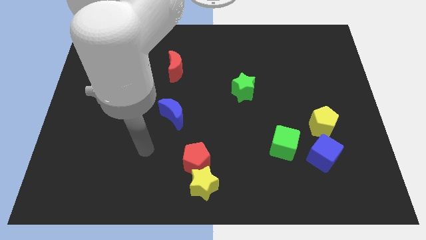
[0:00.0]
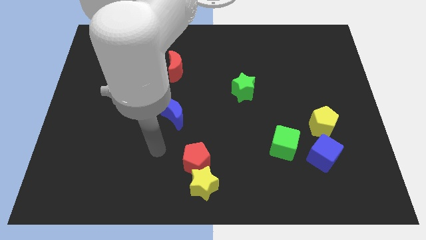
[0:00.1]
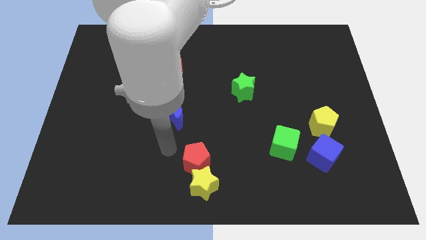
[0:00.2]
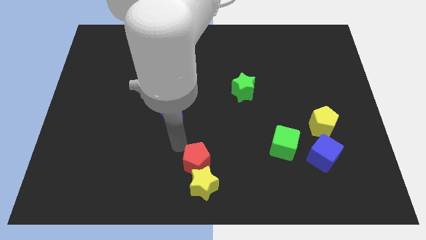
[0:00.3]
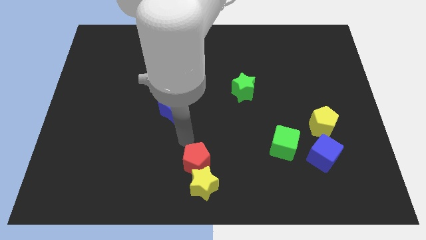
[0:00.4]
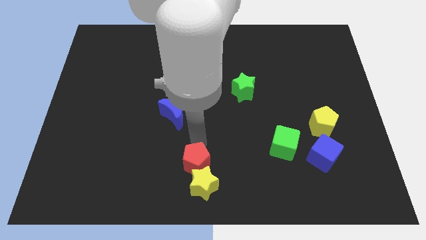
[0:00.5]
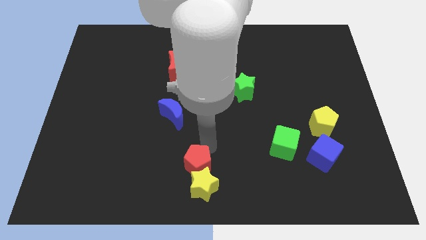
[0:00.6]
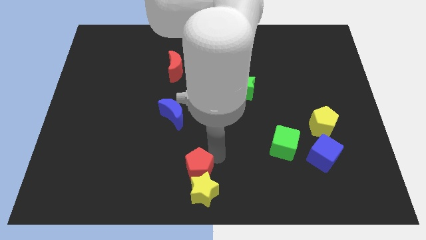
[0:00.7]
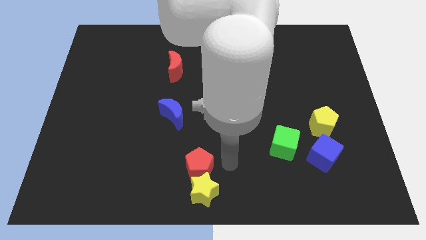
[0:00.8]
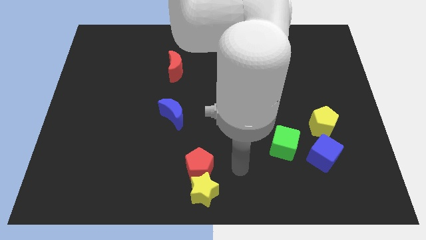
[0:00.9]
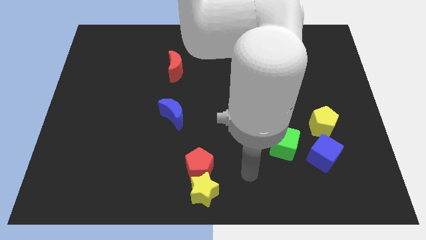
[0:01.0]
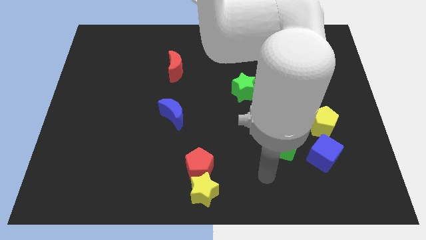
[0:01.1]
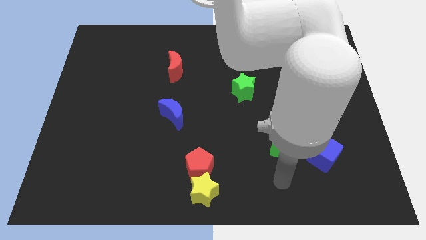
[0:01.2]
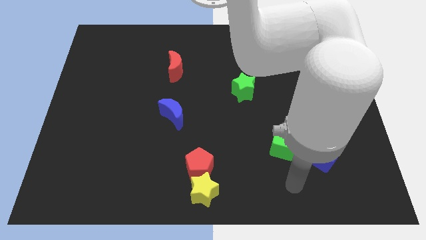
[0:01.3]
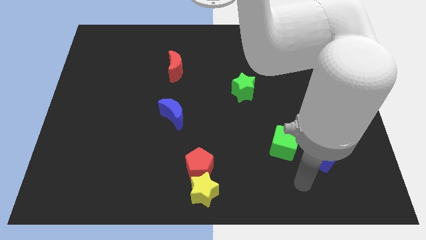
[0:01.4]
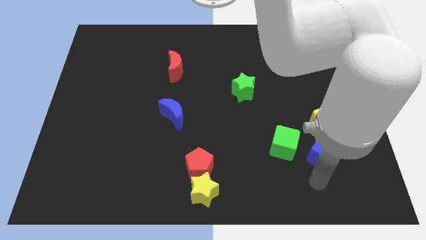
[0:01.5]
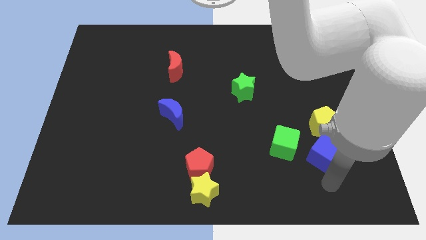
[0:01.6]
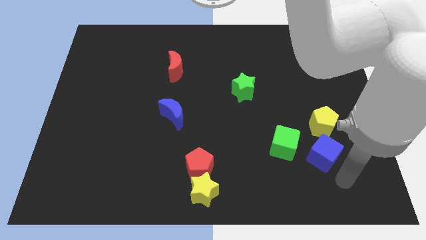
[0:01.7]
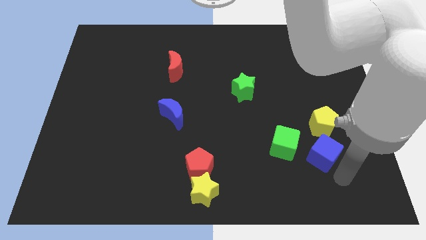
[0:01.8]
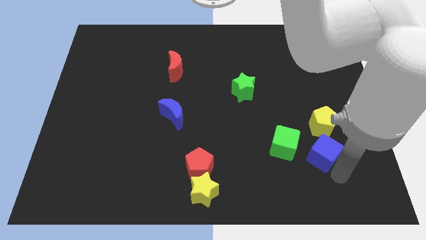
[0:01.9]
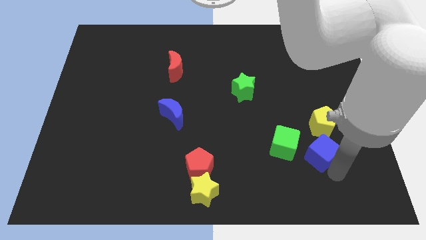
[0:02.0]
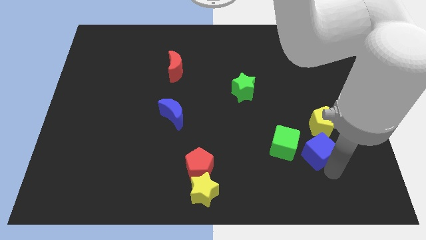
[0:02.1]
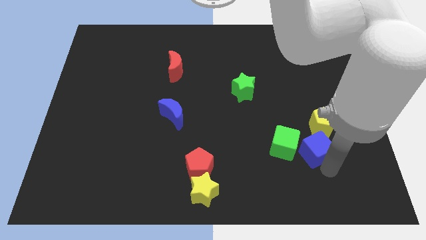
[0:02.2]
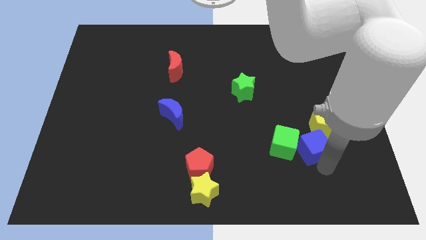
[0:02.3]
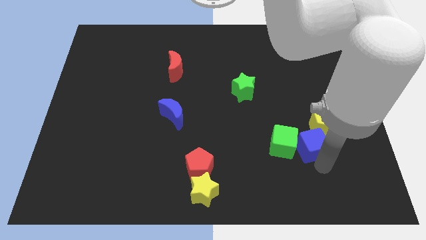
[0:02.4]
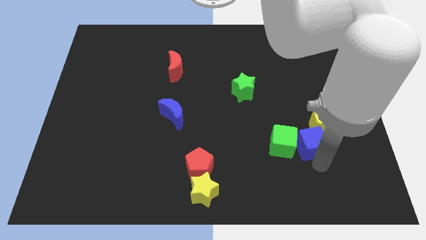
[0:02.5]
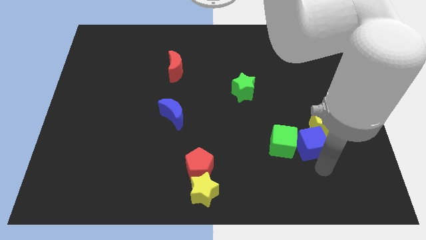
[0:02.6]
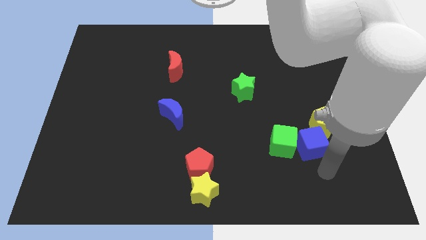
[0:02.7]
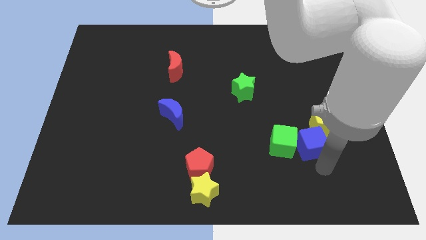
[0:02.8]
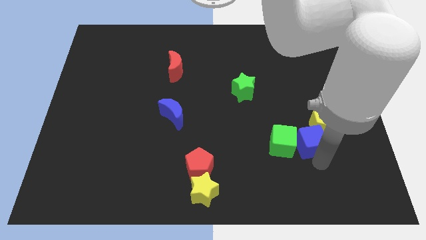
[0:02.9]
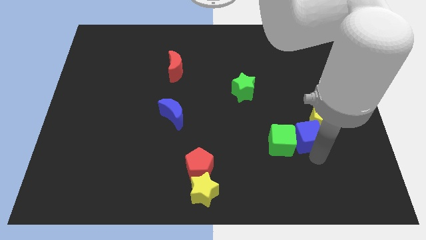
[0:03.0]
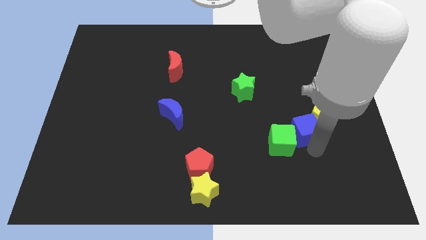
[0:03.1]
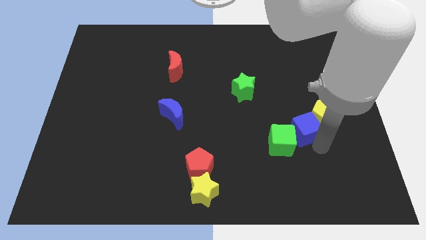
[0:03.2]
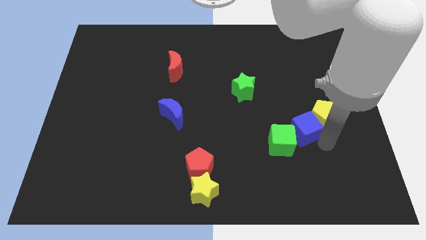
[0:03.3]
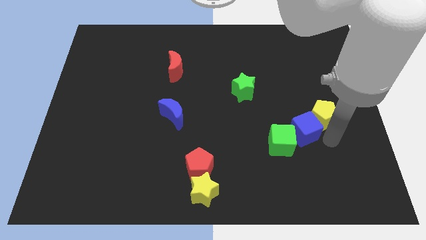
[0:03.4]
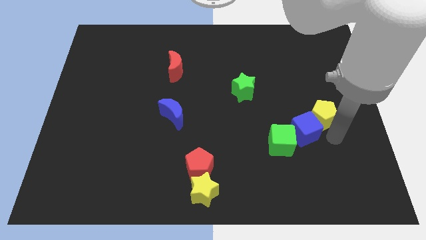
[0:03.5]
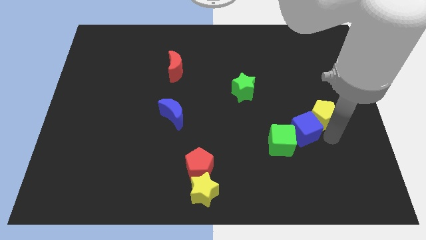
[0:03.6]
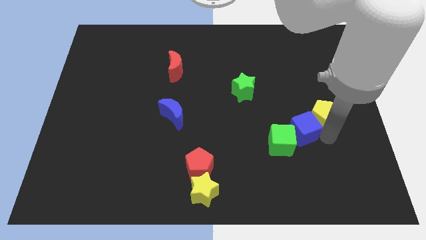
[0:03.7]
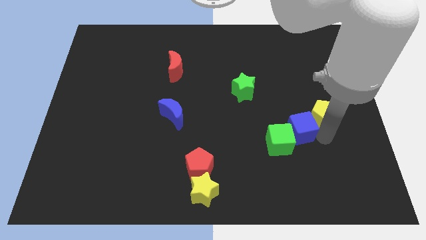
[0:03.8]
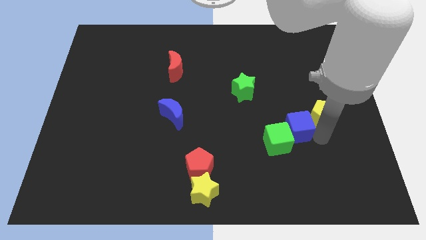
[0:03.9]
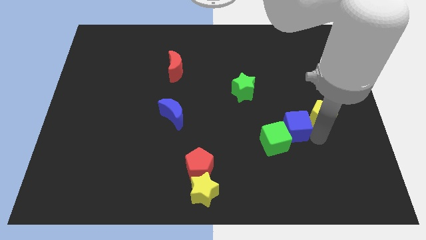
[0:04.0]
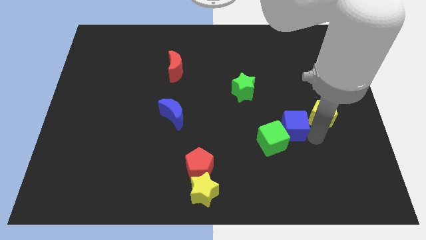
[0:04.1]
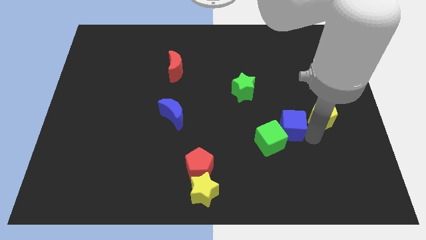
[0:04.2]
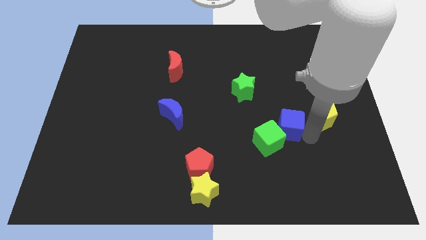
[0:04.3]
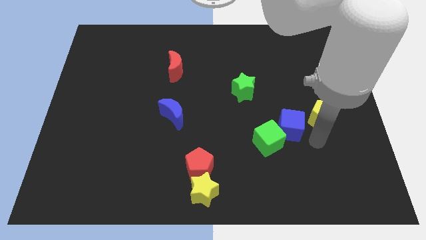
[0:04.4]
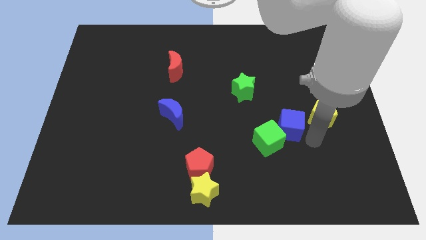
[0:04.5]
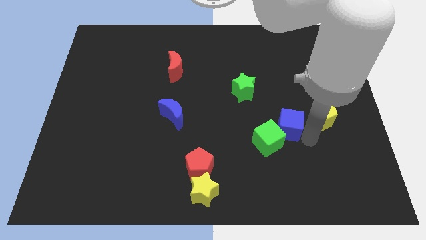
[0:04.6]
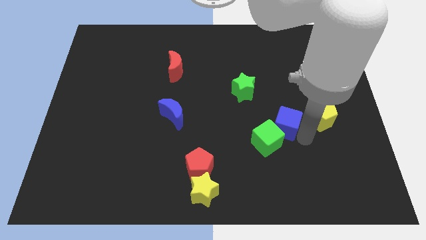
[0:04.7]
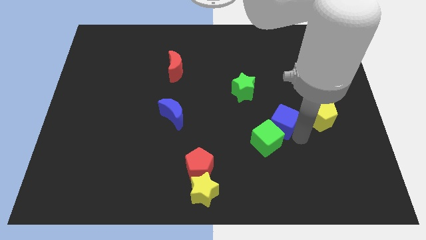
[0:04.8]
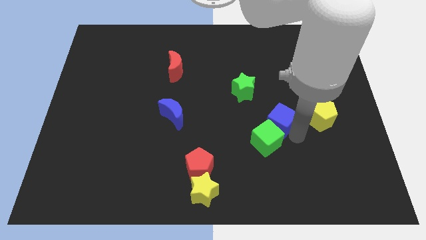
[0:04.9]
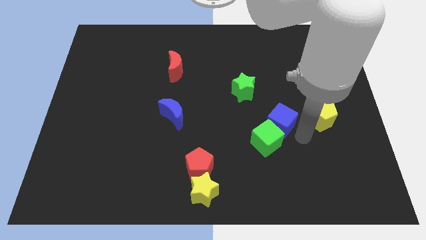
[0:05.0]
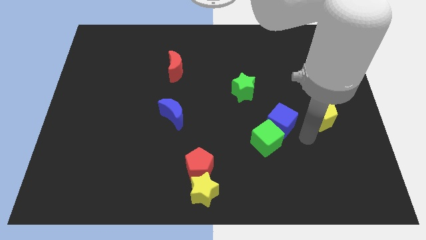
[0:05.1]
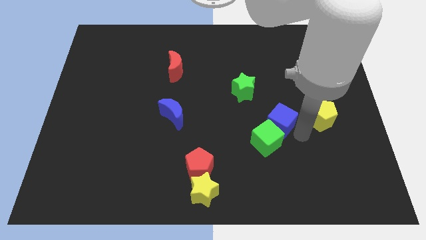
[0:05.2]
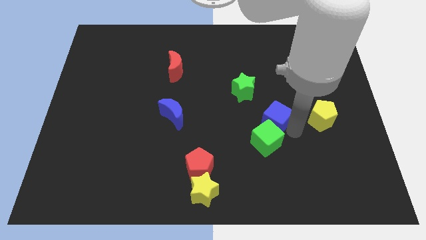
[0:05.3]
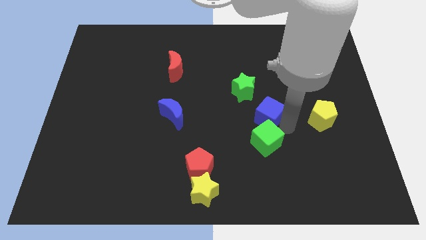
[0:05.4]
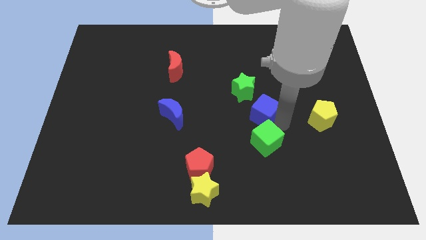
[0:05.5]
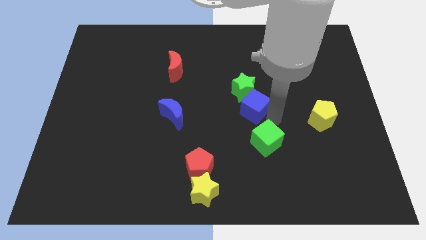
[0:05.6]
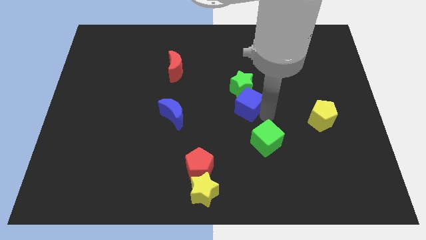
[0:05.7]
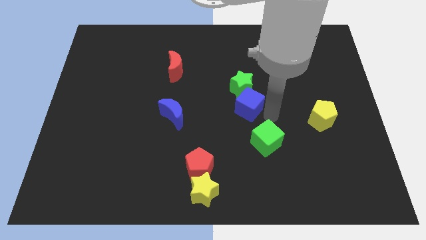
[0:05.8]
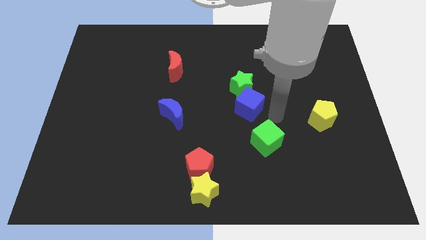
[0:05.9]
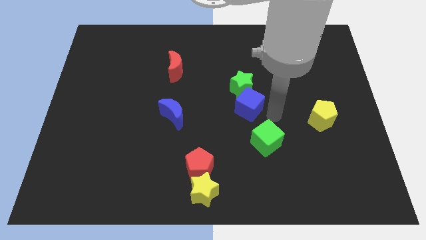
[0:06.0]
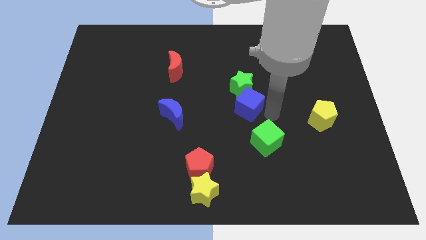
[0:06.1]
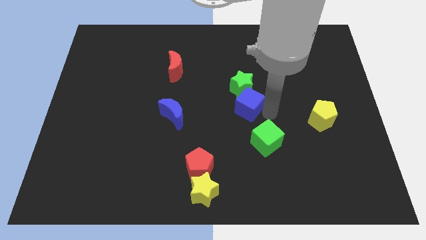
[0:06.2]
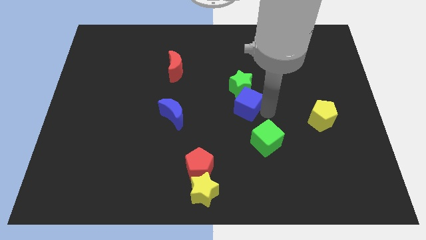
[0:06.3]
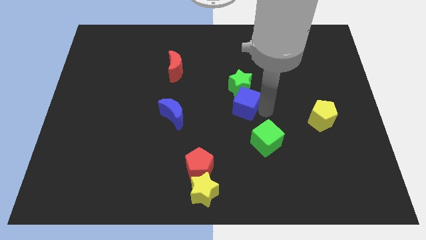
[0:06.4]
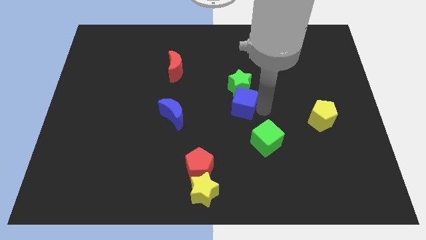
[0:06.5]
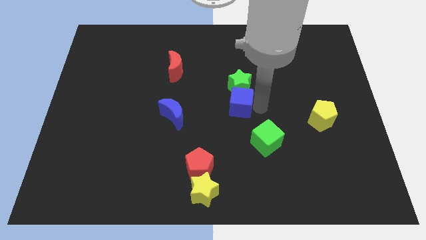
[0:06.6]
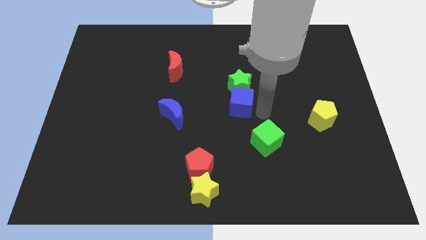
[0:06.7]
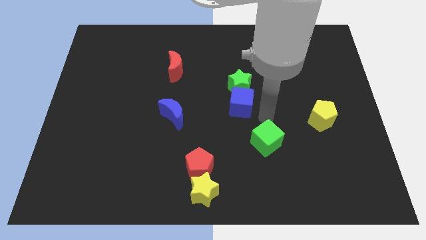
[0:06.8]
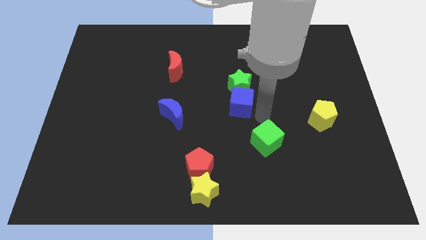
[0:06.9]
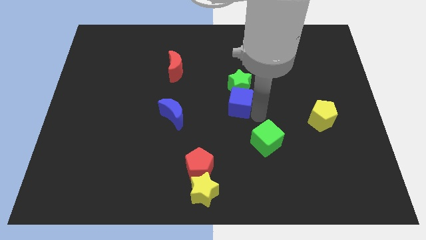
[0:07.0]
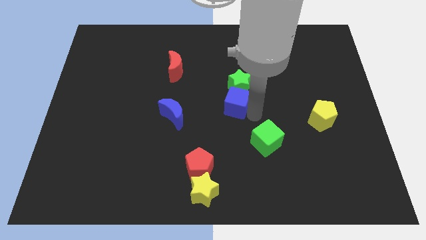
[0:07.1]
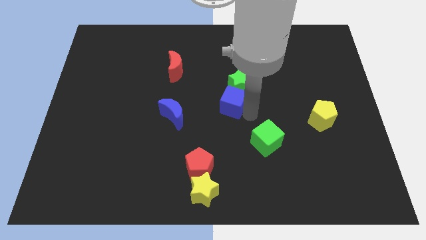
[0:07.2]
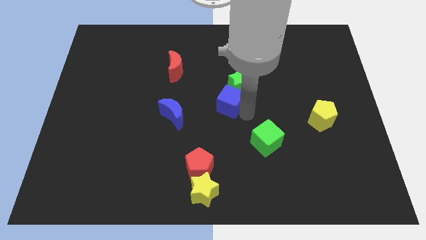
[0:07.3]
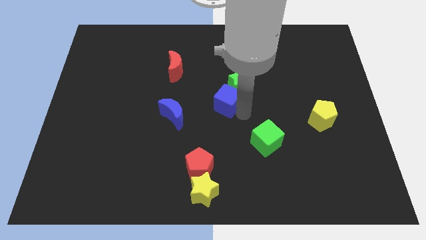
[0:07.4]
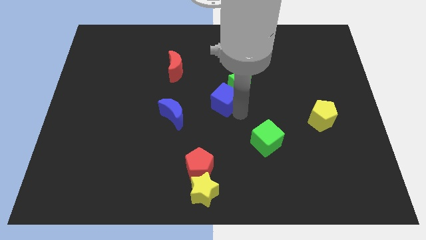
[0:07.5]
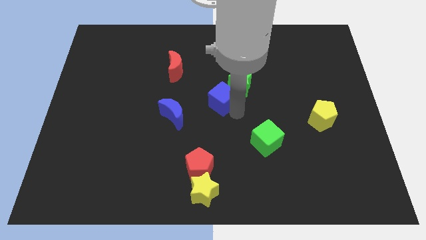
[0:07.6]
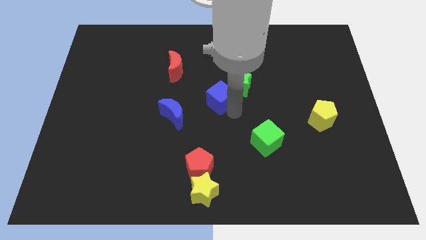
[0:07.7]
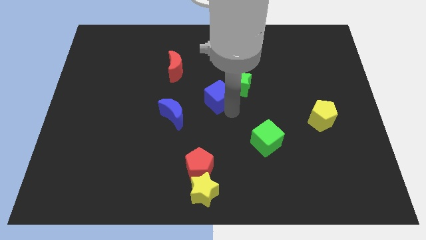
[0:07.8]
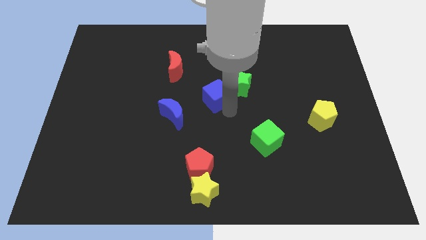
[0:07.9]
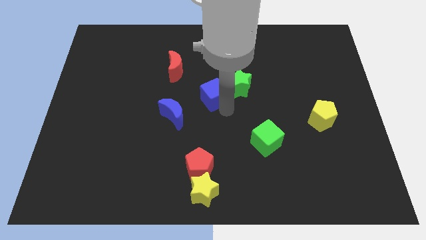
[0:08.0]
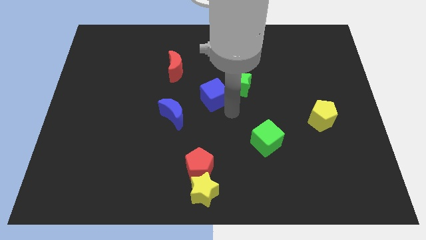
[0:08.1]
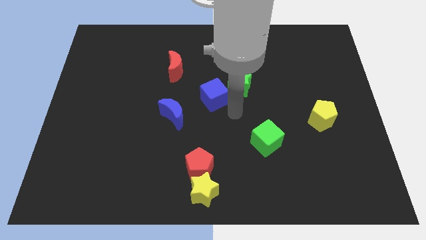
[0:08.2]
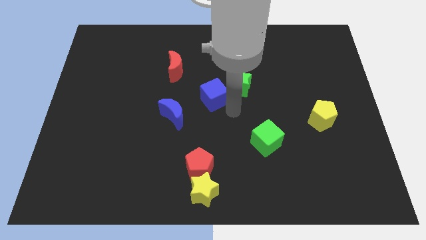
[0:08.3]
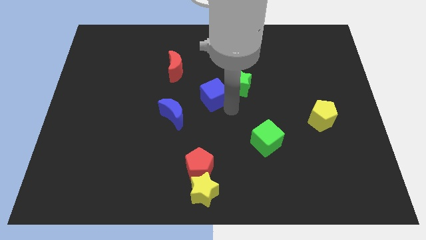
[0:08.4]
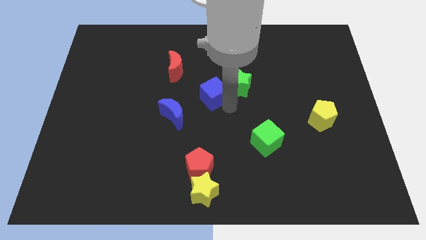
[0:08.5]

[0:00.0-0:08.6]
put the blue cube to the bottom right of the red moon
